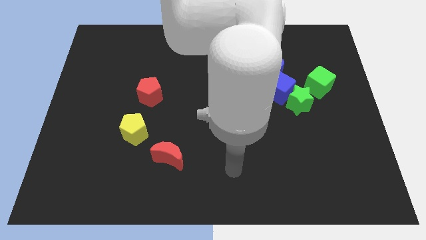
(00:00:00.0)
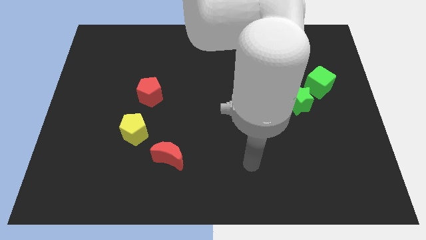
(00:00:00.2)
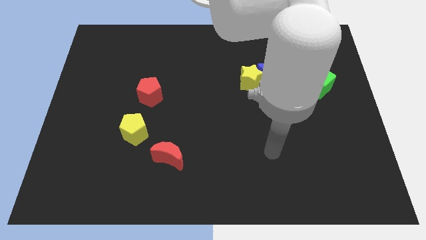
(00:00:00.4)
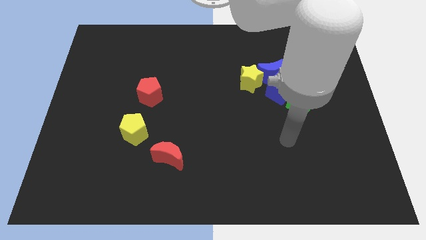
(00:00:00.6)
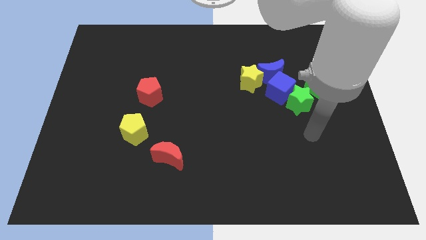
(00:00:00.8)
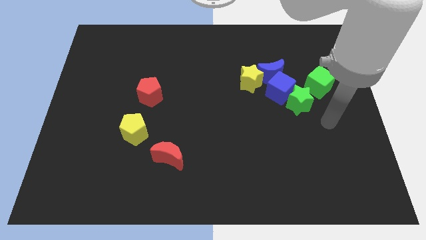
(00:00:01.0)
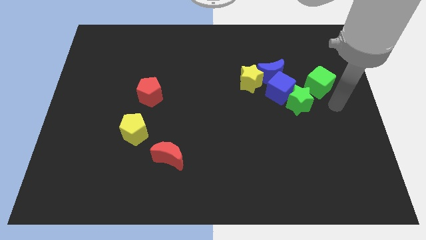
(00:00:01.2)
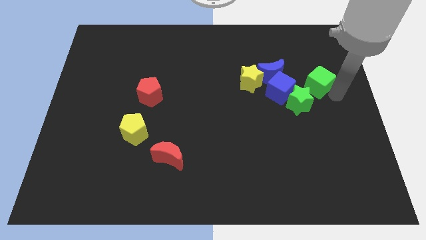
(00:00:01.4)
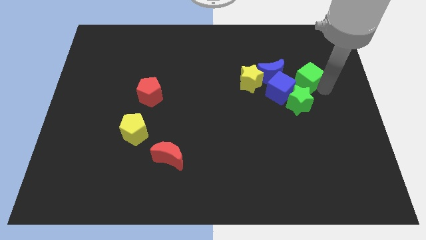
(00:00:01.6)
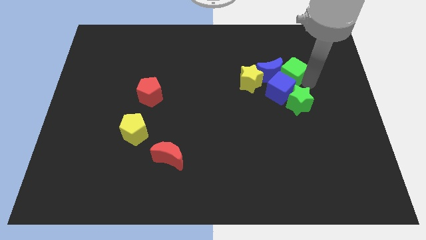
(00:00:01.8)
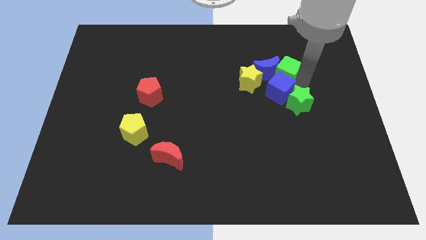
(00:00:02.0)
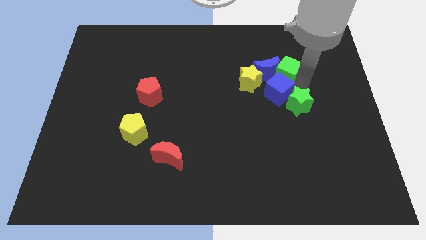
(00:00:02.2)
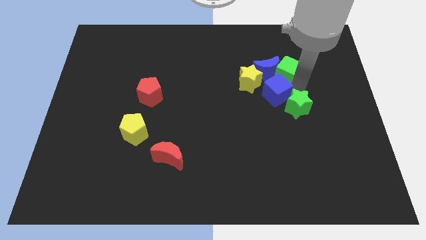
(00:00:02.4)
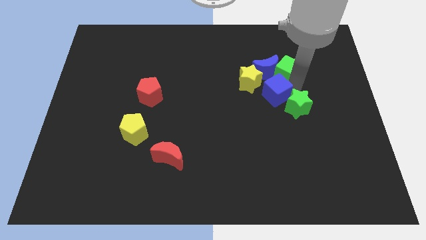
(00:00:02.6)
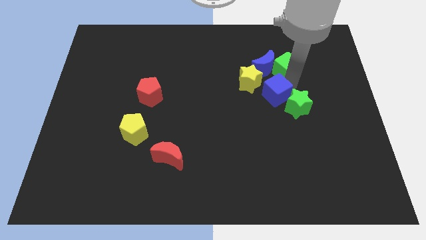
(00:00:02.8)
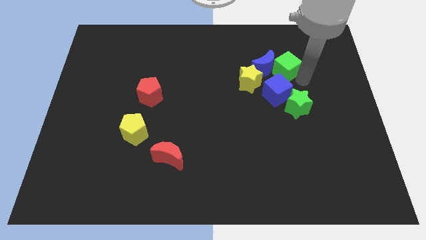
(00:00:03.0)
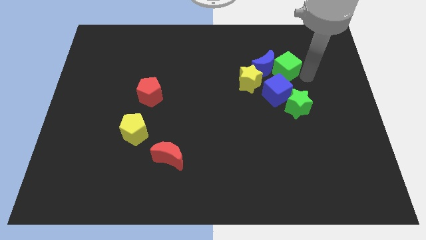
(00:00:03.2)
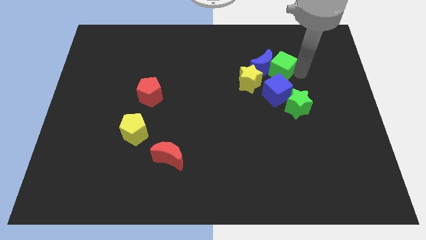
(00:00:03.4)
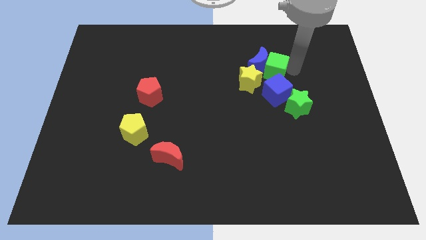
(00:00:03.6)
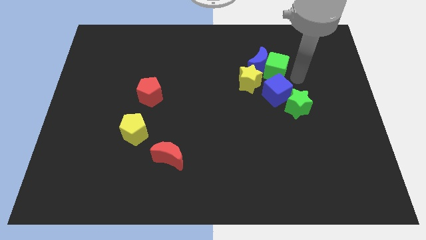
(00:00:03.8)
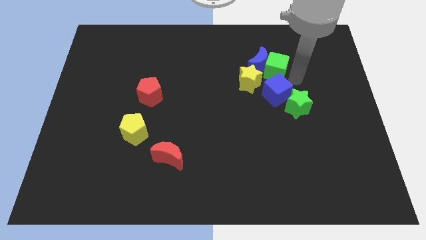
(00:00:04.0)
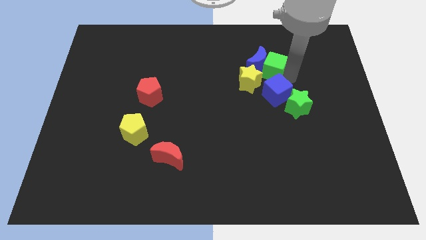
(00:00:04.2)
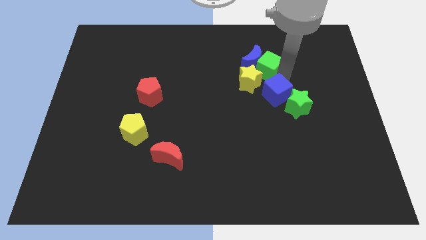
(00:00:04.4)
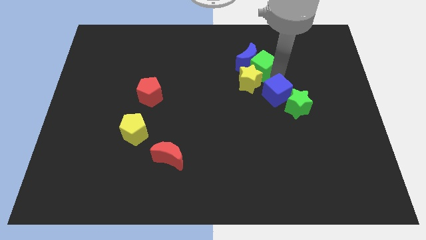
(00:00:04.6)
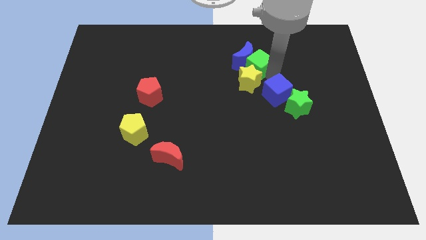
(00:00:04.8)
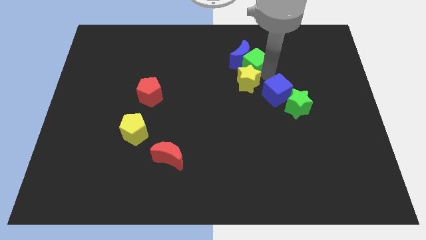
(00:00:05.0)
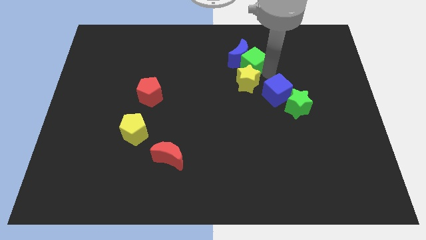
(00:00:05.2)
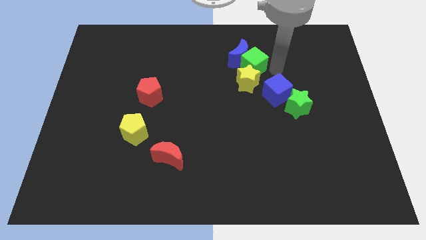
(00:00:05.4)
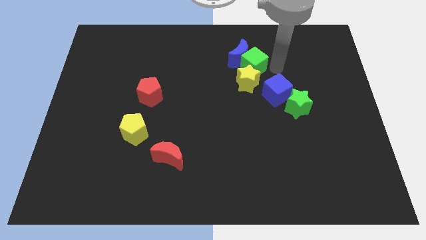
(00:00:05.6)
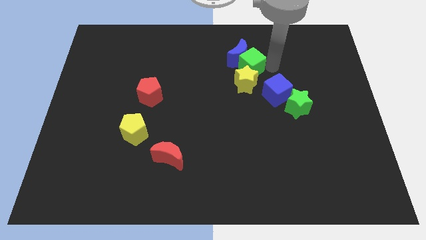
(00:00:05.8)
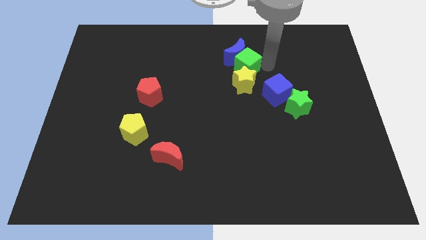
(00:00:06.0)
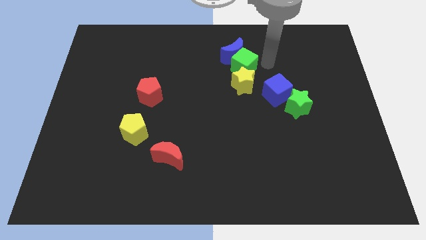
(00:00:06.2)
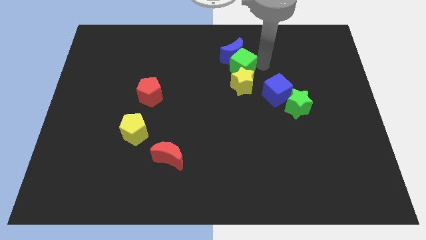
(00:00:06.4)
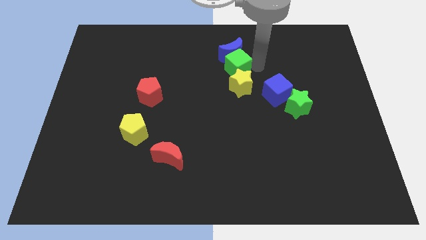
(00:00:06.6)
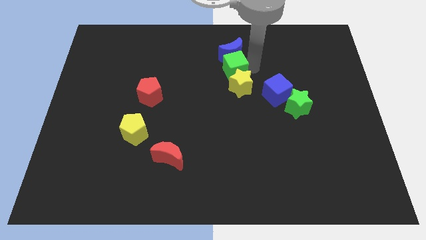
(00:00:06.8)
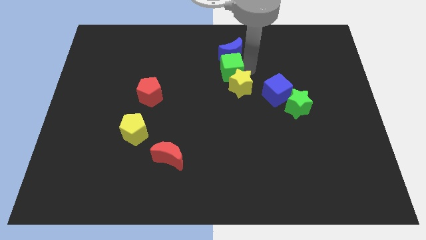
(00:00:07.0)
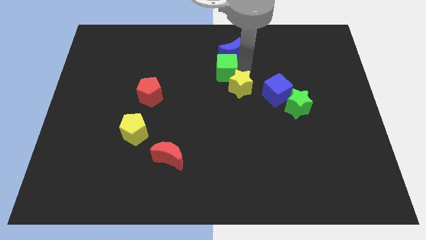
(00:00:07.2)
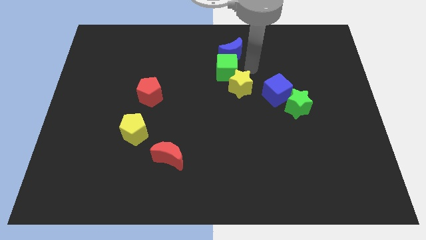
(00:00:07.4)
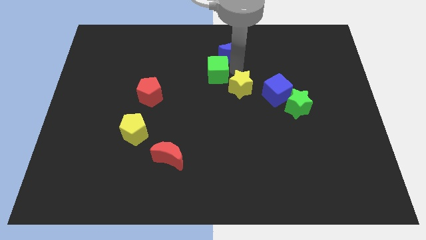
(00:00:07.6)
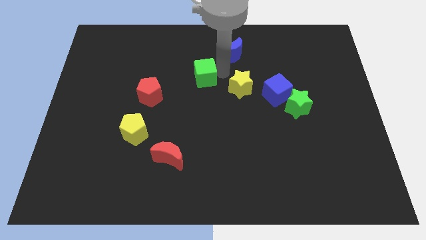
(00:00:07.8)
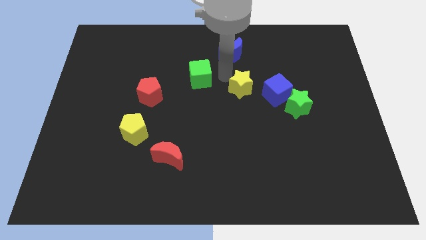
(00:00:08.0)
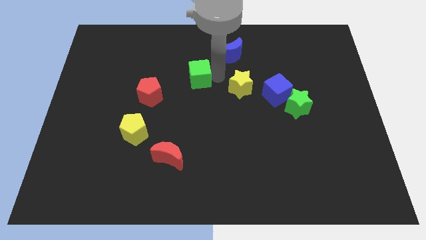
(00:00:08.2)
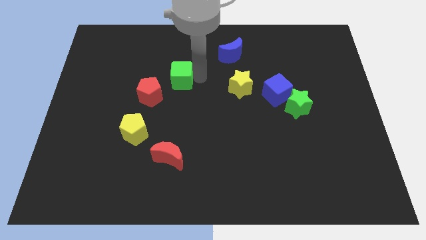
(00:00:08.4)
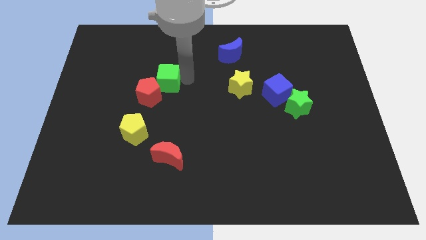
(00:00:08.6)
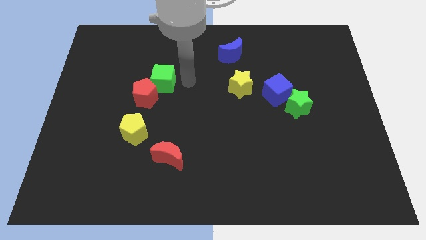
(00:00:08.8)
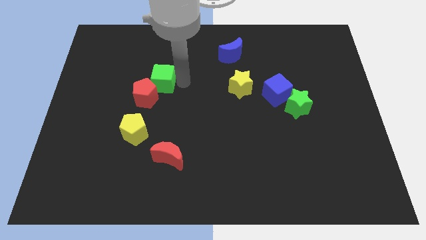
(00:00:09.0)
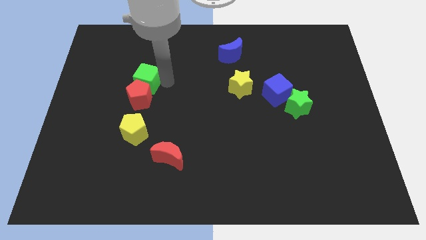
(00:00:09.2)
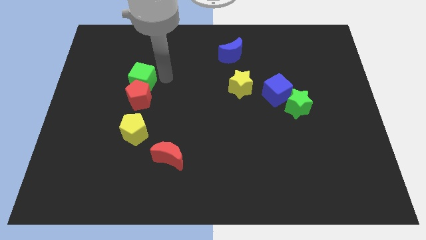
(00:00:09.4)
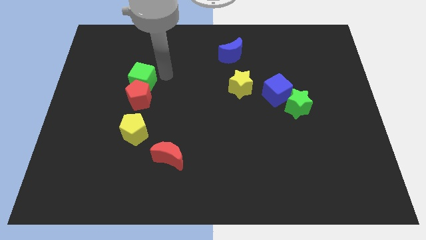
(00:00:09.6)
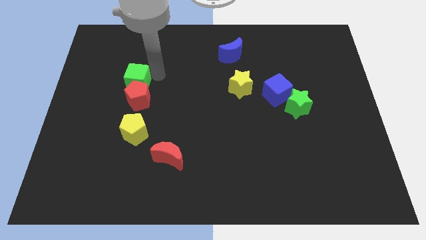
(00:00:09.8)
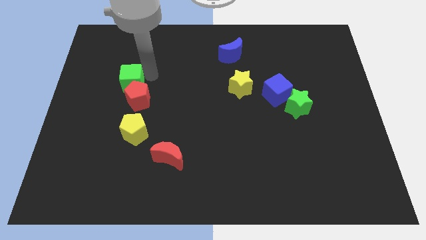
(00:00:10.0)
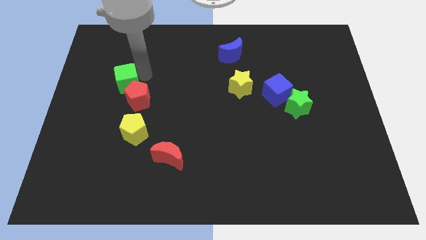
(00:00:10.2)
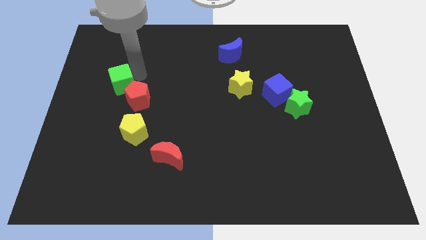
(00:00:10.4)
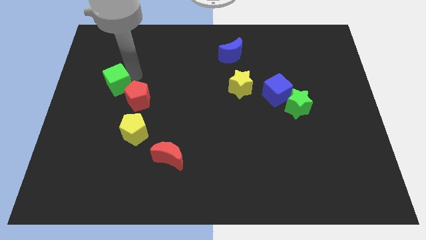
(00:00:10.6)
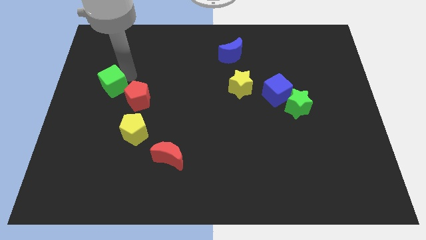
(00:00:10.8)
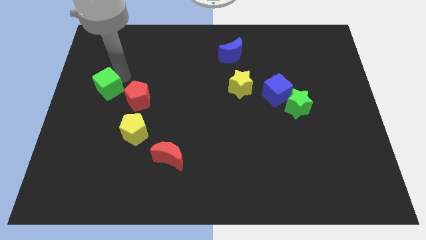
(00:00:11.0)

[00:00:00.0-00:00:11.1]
push the green cube to the center left

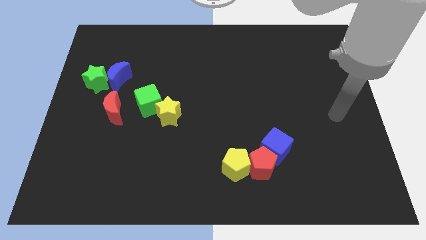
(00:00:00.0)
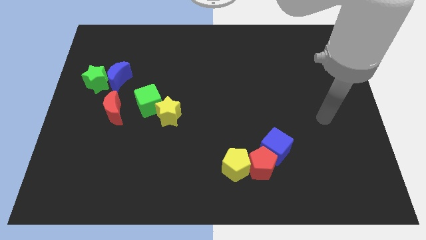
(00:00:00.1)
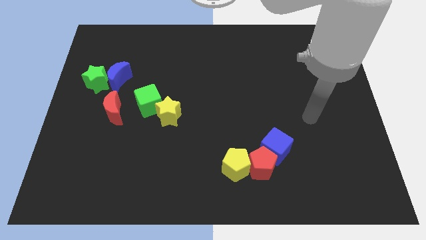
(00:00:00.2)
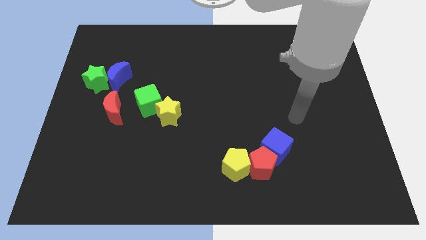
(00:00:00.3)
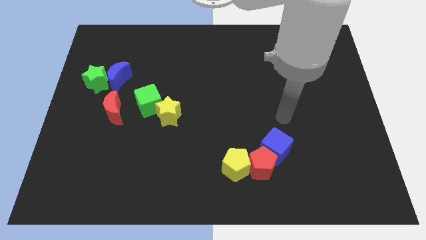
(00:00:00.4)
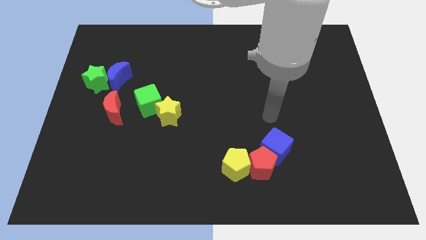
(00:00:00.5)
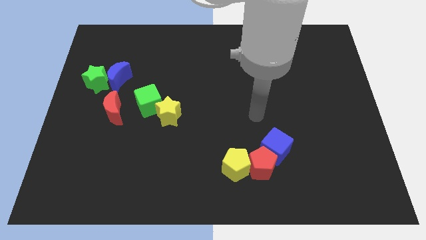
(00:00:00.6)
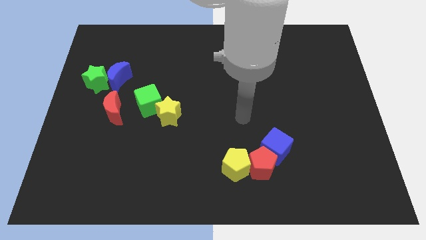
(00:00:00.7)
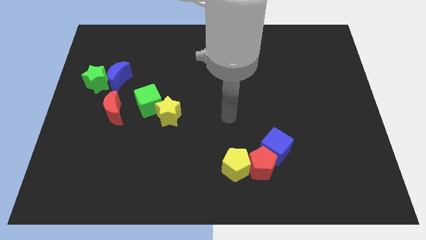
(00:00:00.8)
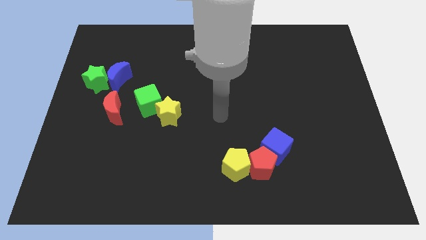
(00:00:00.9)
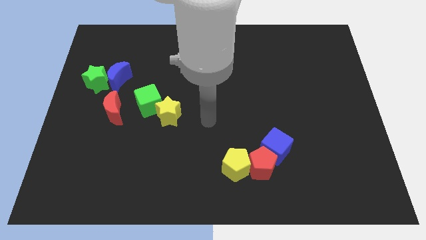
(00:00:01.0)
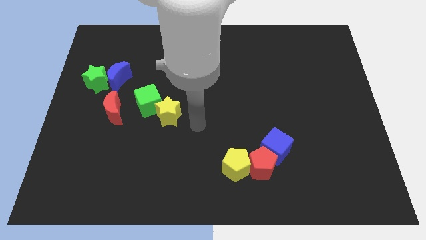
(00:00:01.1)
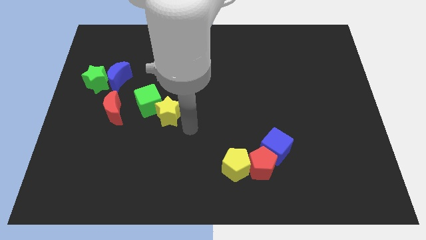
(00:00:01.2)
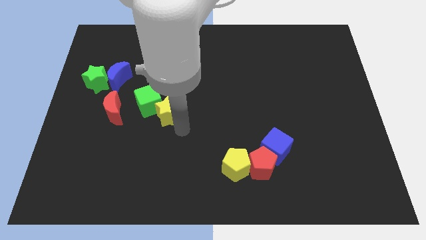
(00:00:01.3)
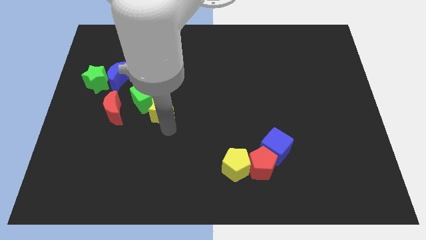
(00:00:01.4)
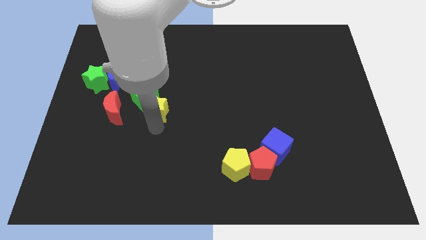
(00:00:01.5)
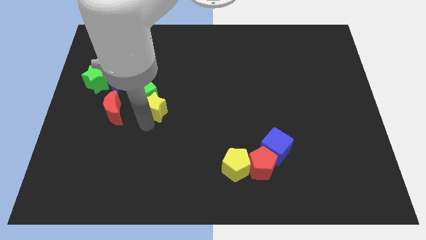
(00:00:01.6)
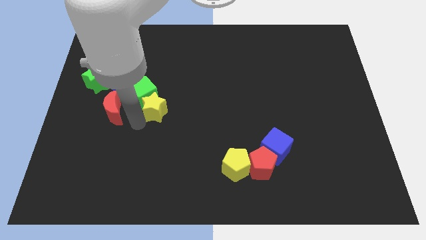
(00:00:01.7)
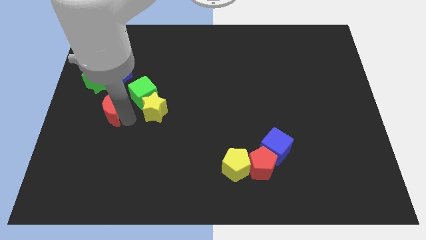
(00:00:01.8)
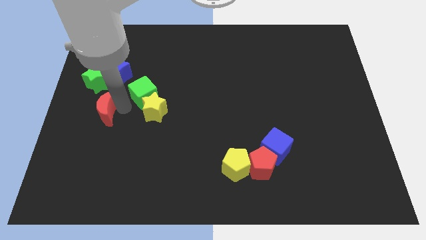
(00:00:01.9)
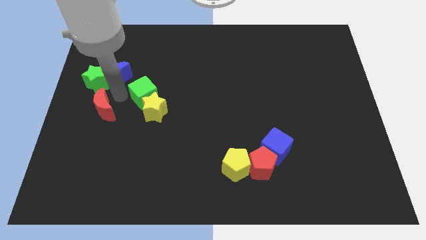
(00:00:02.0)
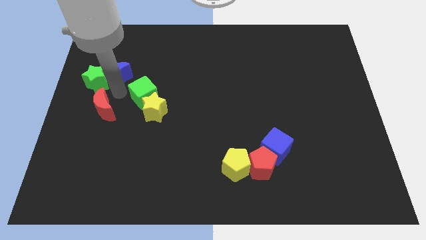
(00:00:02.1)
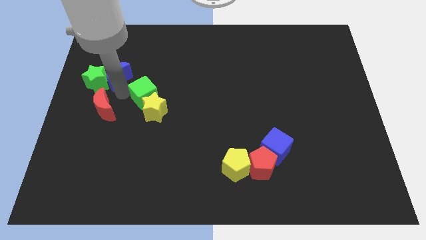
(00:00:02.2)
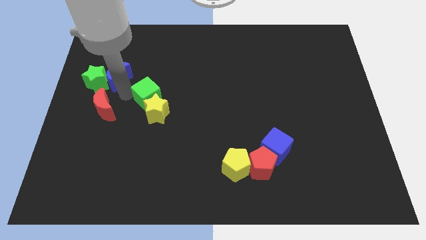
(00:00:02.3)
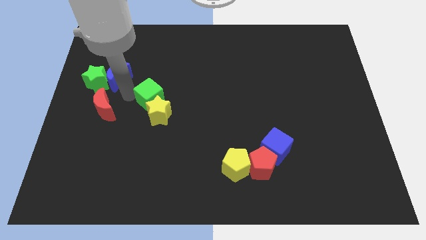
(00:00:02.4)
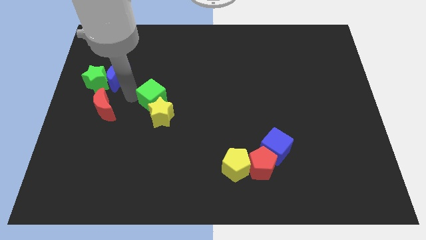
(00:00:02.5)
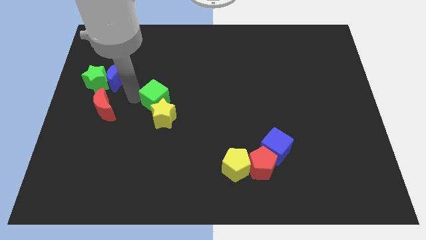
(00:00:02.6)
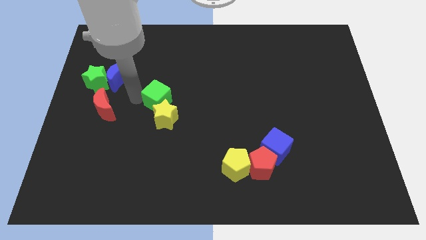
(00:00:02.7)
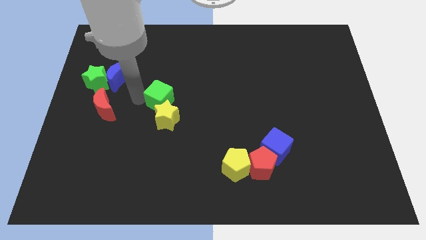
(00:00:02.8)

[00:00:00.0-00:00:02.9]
put the green cube to the center of the board
